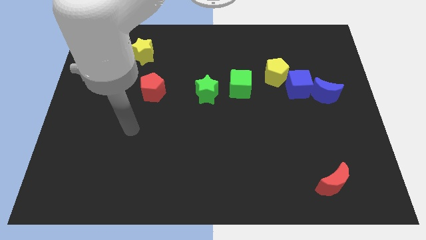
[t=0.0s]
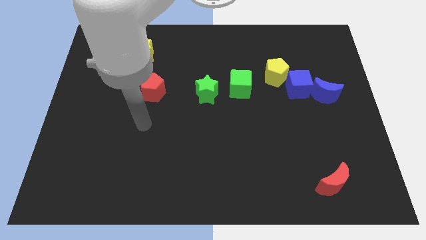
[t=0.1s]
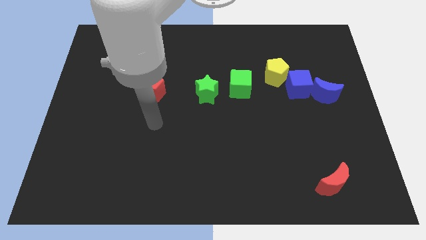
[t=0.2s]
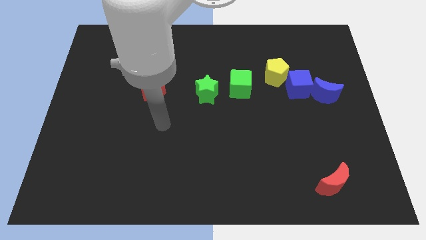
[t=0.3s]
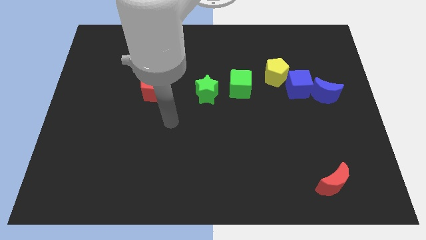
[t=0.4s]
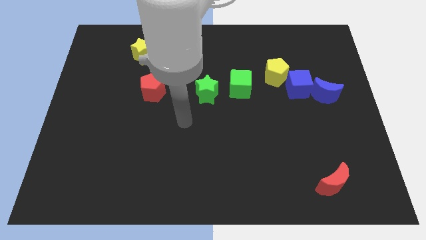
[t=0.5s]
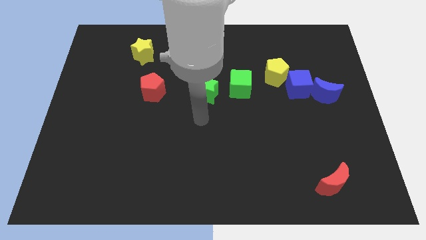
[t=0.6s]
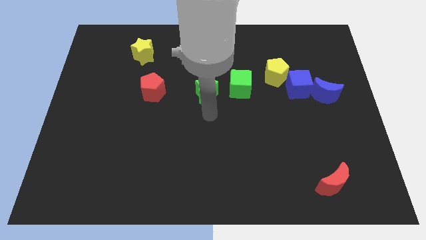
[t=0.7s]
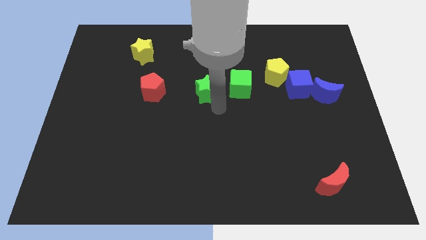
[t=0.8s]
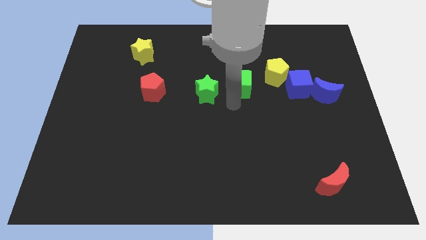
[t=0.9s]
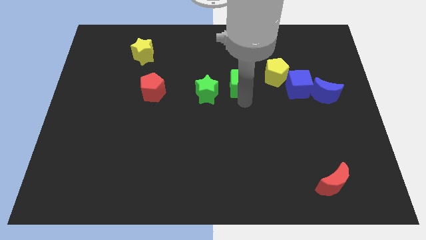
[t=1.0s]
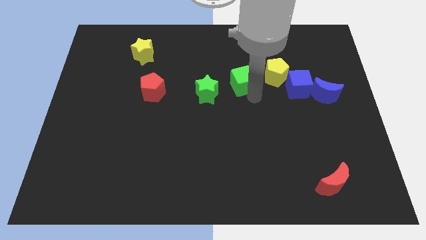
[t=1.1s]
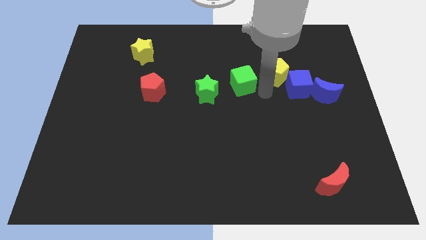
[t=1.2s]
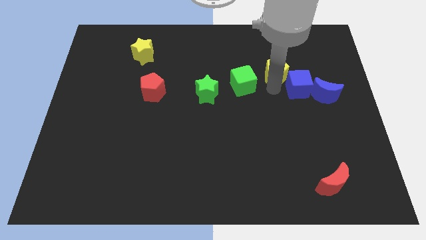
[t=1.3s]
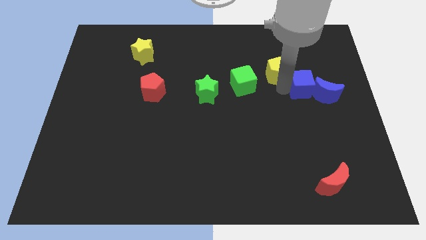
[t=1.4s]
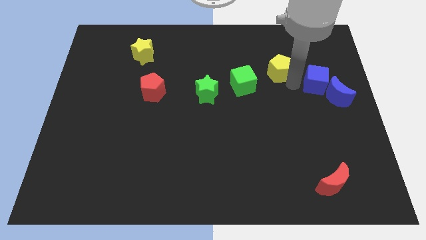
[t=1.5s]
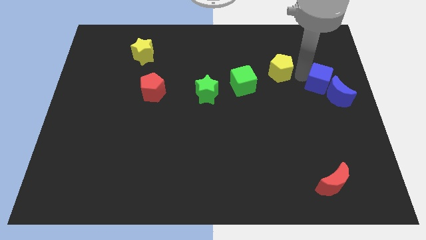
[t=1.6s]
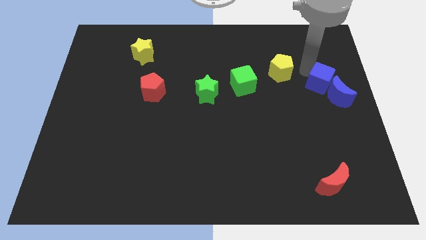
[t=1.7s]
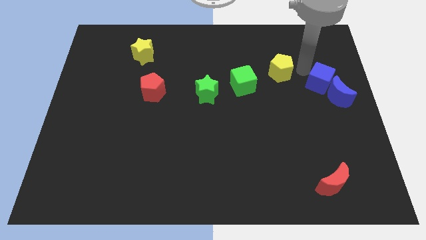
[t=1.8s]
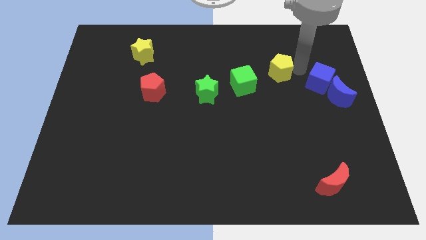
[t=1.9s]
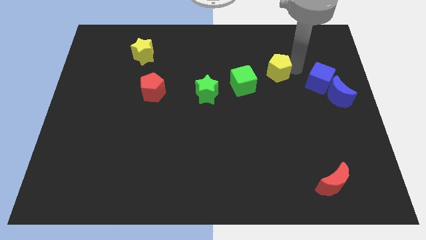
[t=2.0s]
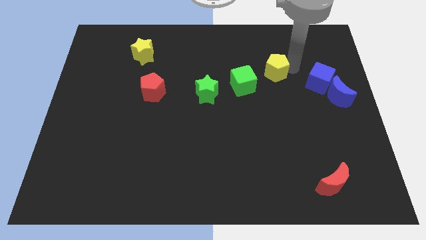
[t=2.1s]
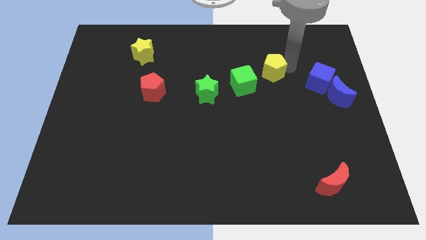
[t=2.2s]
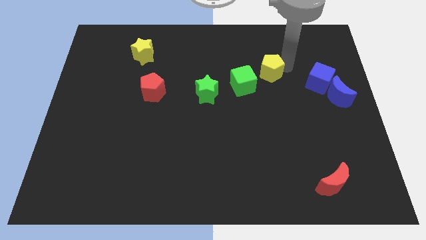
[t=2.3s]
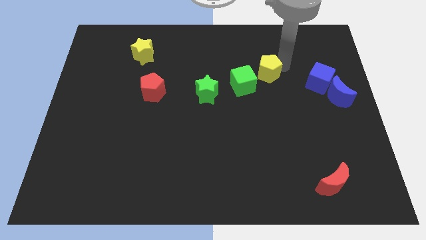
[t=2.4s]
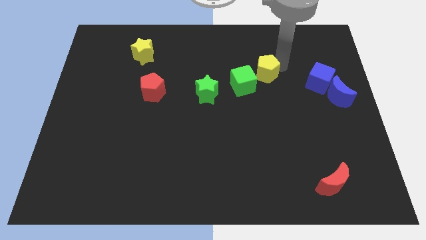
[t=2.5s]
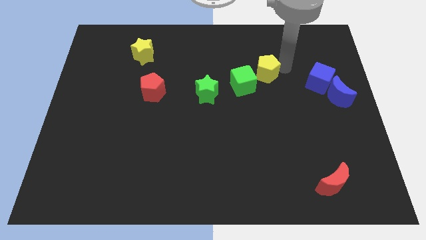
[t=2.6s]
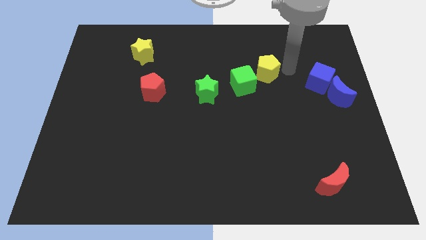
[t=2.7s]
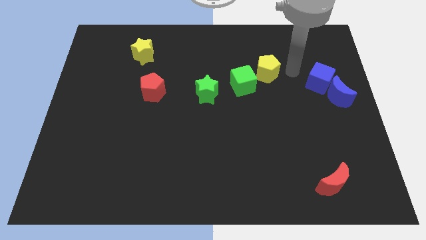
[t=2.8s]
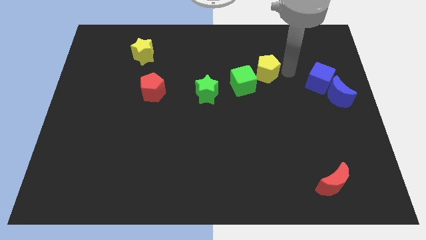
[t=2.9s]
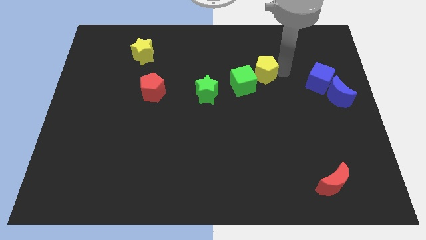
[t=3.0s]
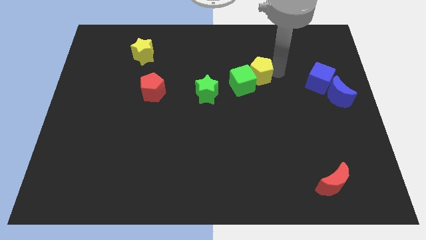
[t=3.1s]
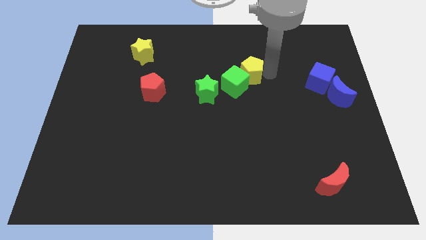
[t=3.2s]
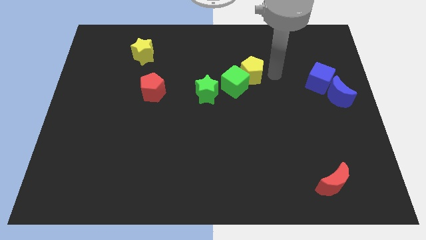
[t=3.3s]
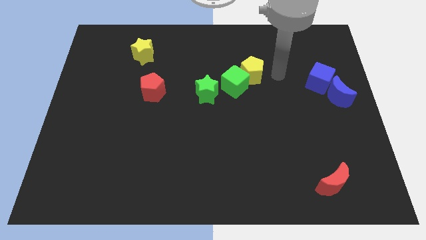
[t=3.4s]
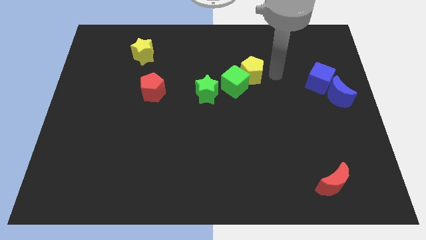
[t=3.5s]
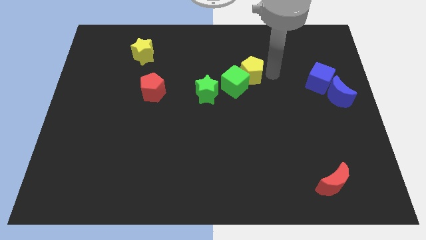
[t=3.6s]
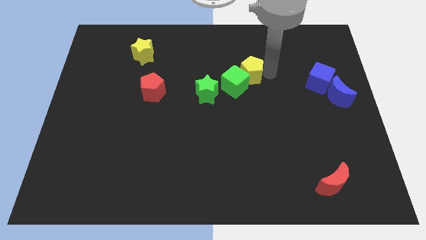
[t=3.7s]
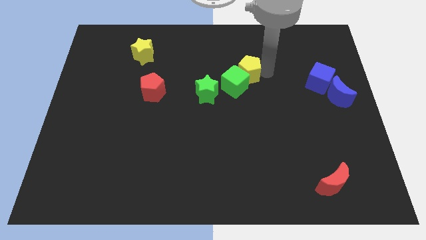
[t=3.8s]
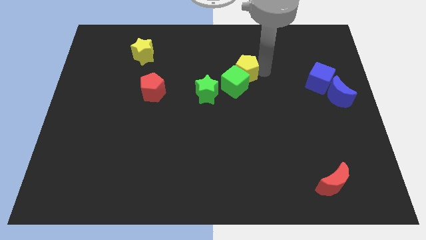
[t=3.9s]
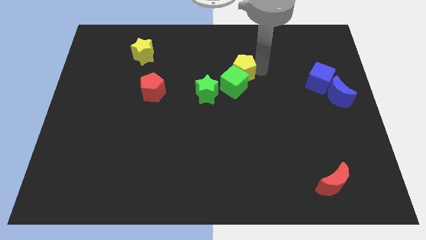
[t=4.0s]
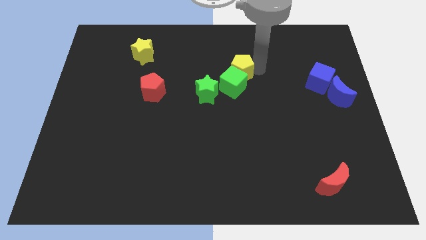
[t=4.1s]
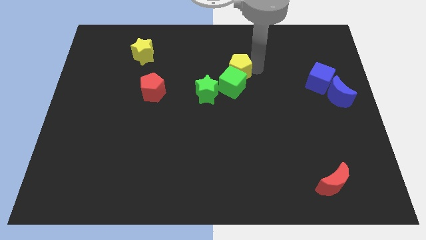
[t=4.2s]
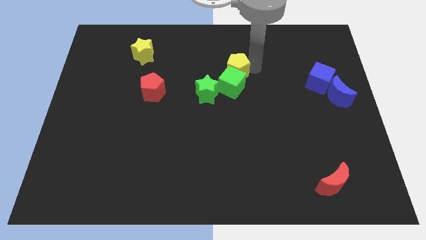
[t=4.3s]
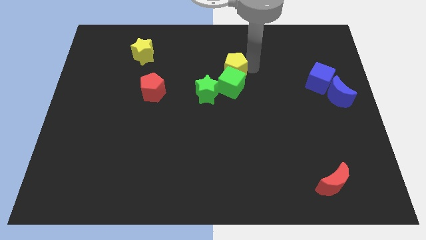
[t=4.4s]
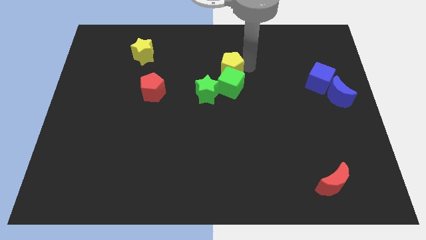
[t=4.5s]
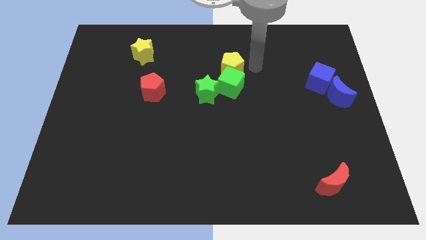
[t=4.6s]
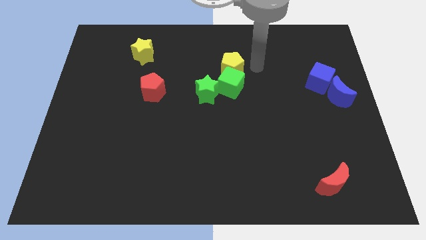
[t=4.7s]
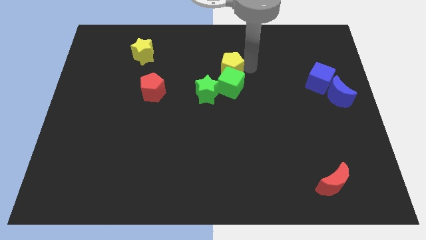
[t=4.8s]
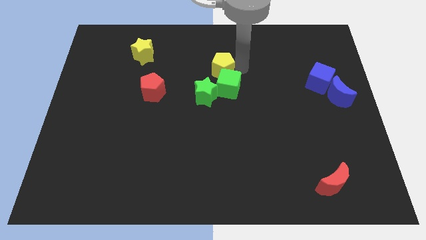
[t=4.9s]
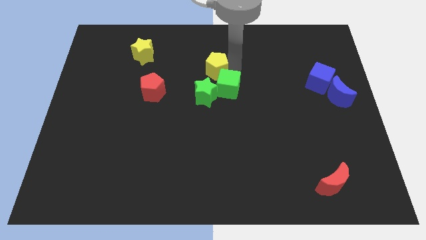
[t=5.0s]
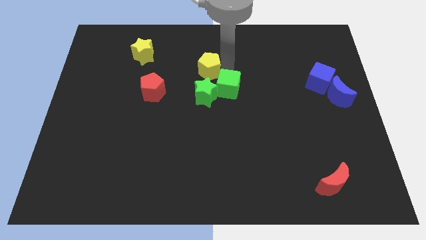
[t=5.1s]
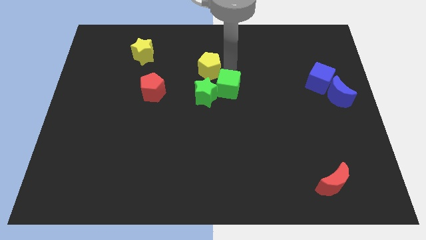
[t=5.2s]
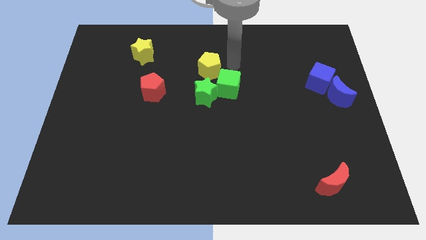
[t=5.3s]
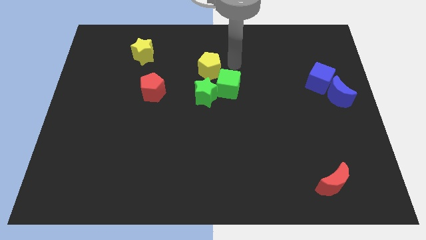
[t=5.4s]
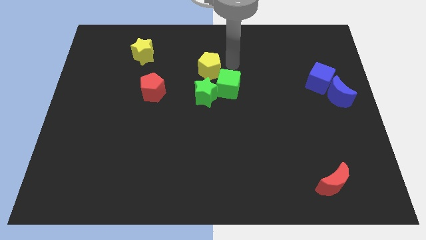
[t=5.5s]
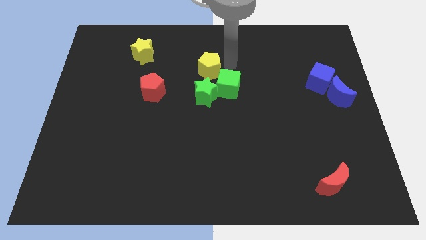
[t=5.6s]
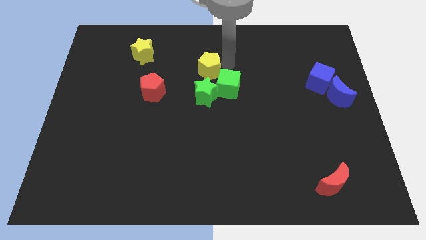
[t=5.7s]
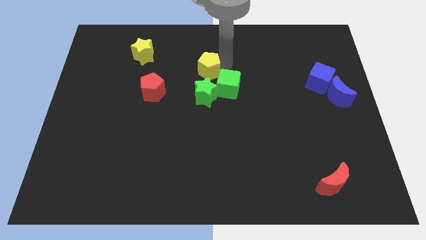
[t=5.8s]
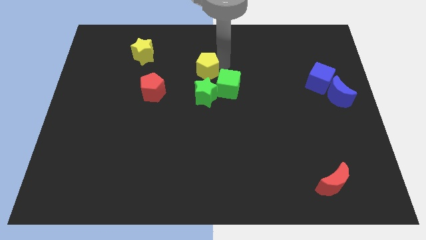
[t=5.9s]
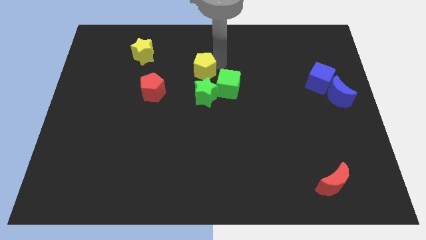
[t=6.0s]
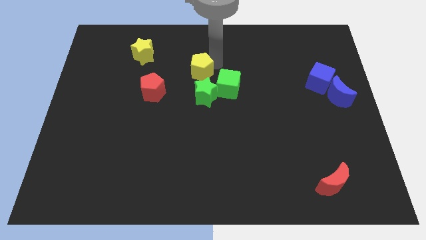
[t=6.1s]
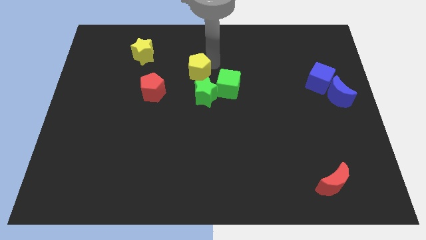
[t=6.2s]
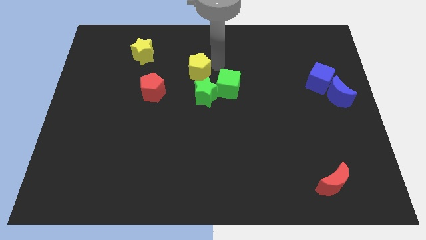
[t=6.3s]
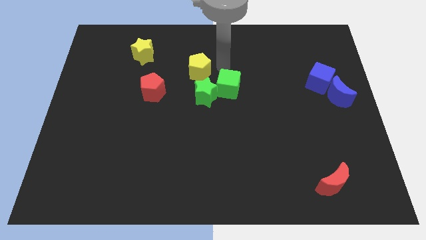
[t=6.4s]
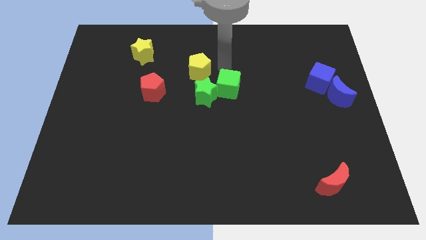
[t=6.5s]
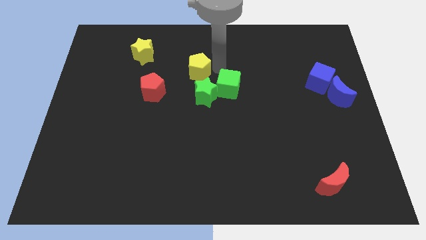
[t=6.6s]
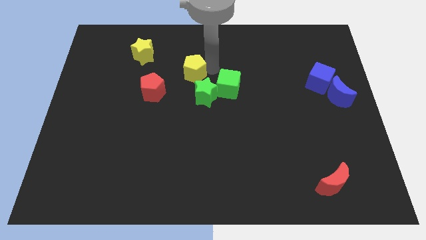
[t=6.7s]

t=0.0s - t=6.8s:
push the yellow pentagon to the left

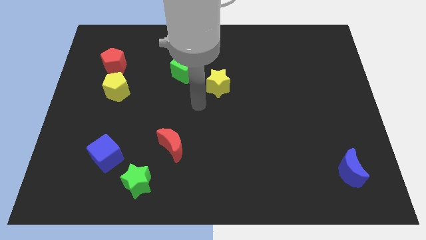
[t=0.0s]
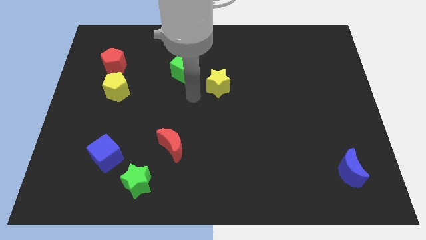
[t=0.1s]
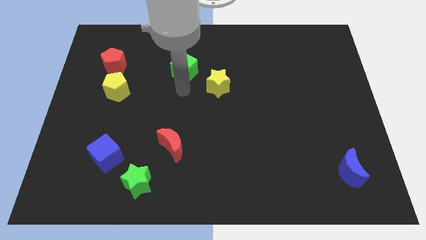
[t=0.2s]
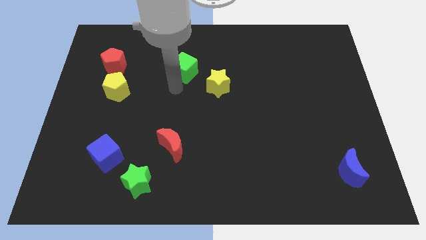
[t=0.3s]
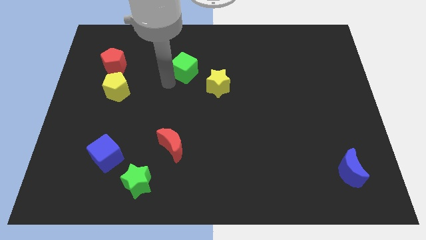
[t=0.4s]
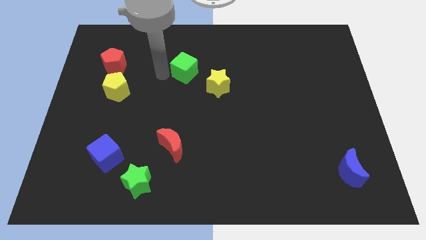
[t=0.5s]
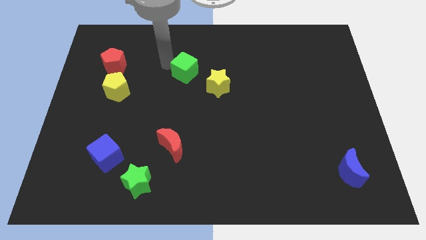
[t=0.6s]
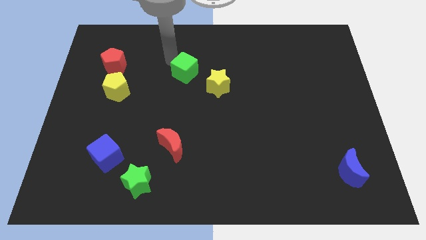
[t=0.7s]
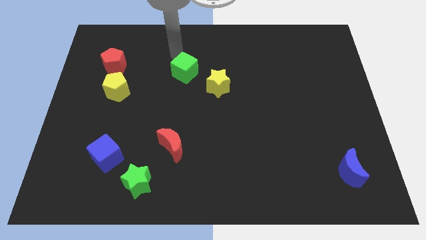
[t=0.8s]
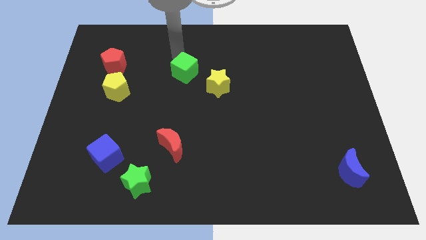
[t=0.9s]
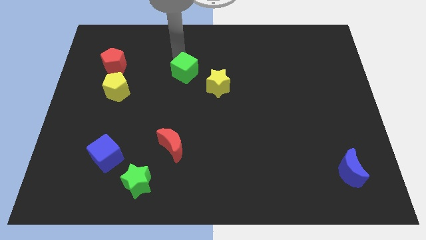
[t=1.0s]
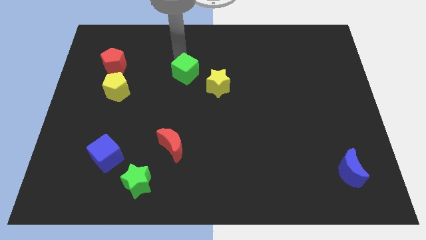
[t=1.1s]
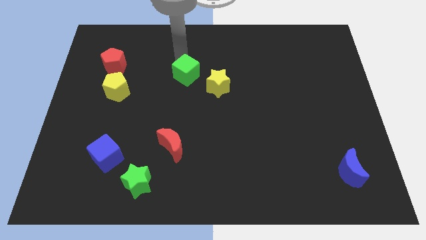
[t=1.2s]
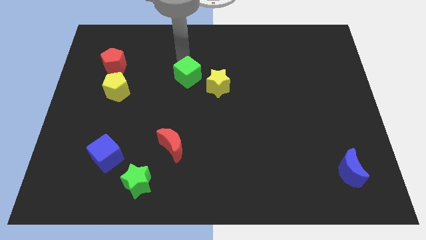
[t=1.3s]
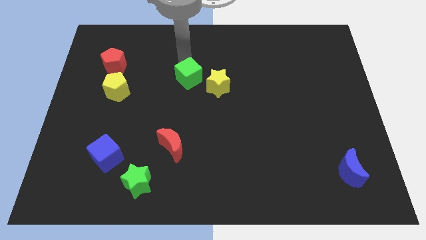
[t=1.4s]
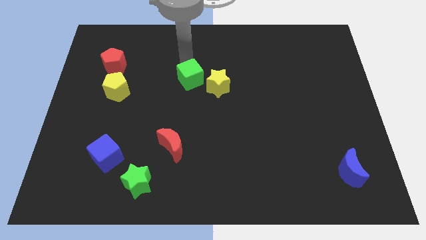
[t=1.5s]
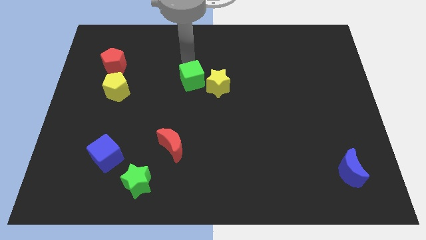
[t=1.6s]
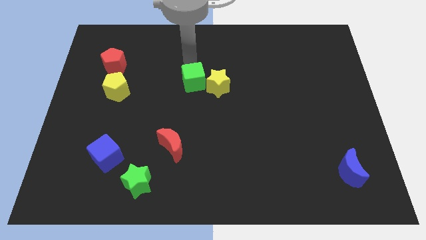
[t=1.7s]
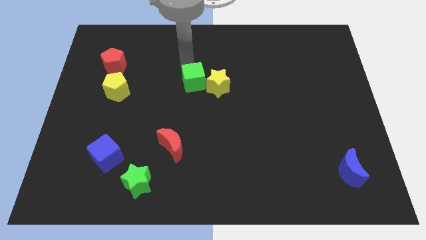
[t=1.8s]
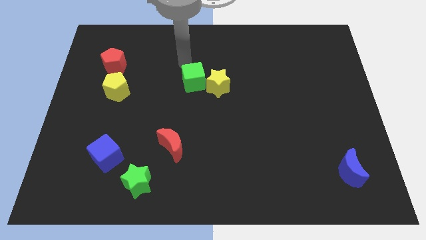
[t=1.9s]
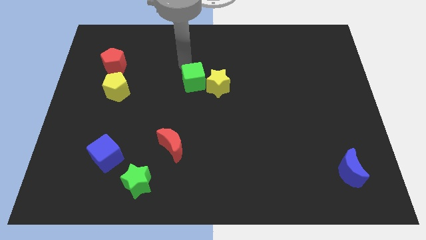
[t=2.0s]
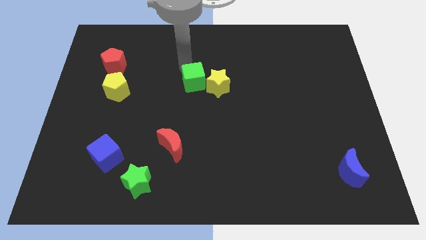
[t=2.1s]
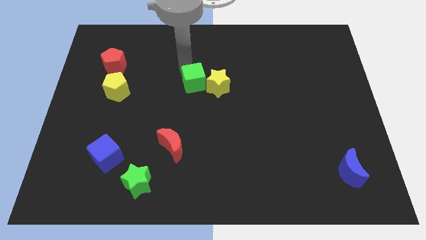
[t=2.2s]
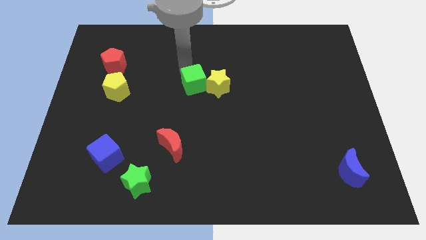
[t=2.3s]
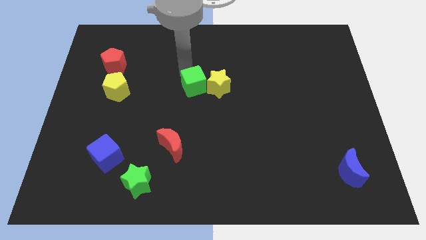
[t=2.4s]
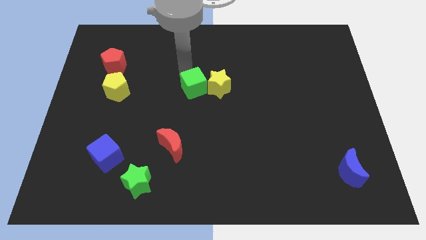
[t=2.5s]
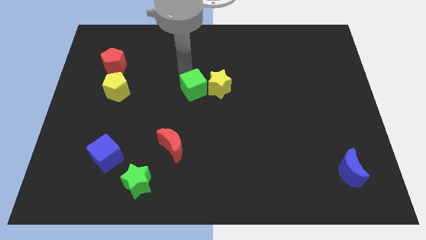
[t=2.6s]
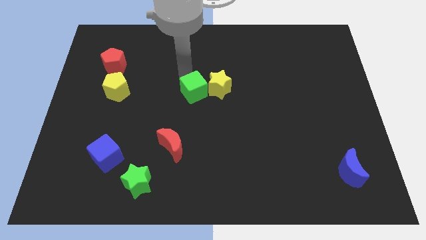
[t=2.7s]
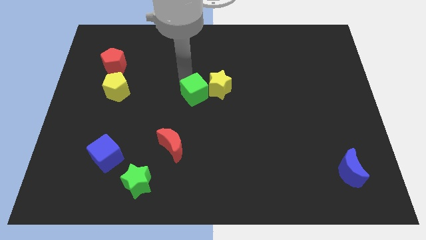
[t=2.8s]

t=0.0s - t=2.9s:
slide the green cube downwards and right slightly
